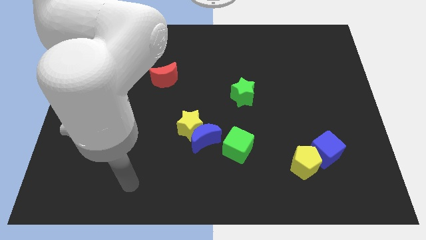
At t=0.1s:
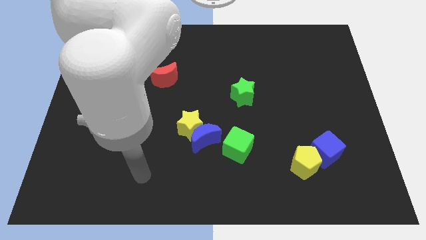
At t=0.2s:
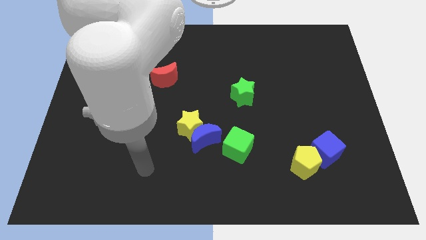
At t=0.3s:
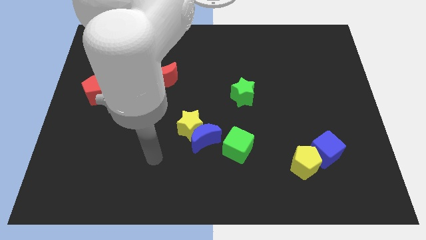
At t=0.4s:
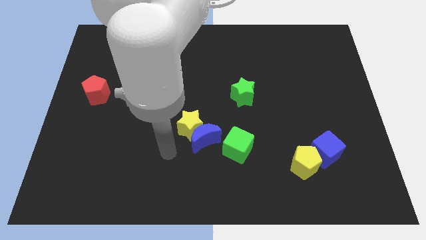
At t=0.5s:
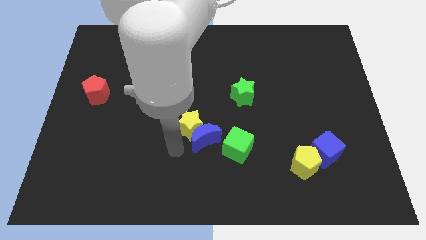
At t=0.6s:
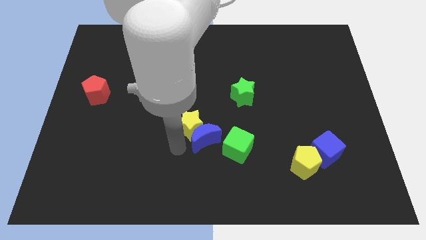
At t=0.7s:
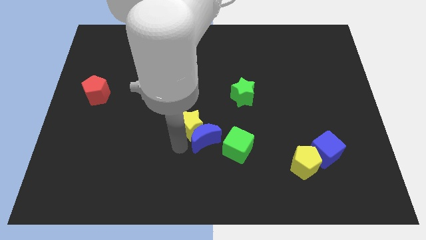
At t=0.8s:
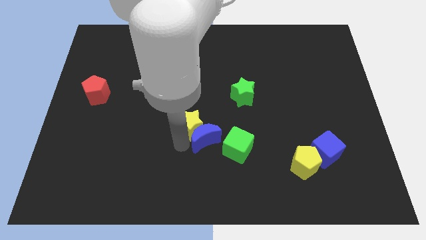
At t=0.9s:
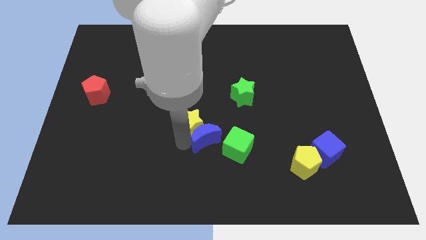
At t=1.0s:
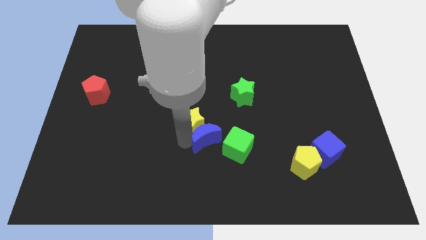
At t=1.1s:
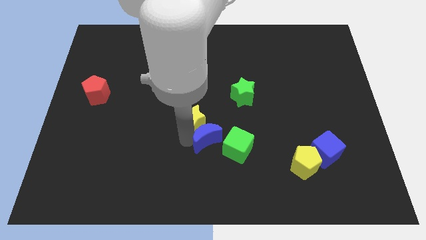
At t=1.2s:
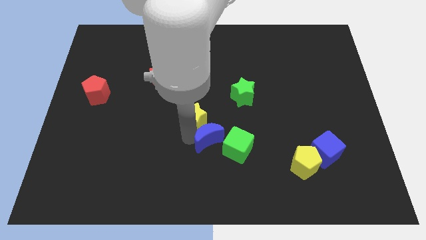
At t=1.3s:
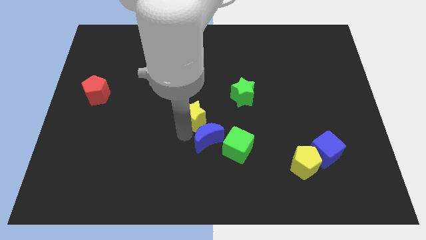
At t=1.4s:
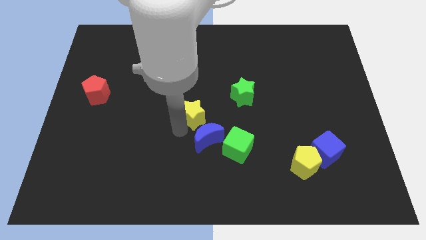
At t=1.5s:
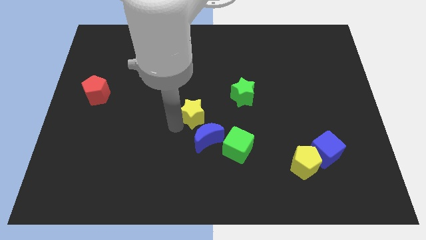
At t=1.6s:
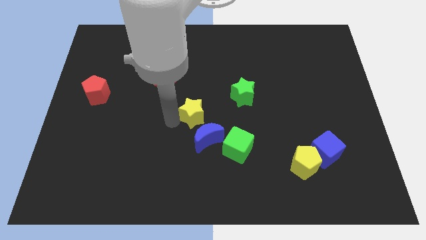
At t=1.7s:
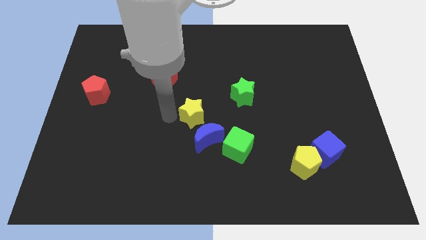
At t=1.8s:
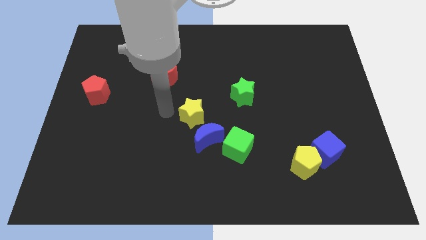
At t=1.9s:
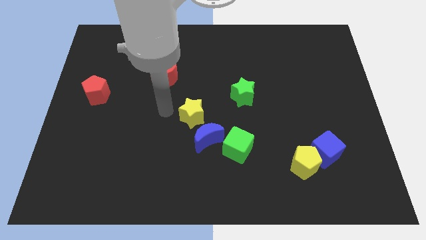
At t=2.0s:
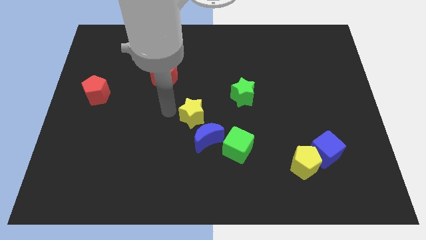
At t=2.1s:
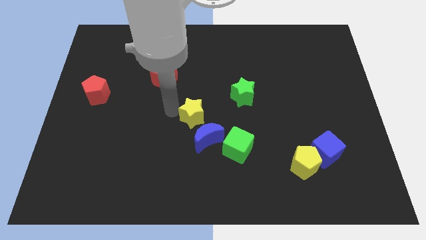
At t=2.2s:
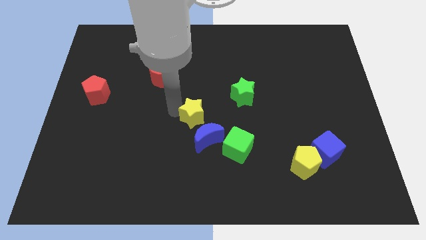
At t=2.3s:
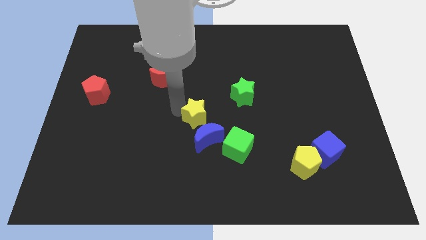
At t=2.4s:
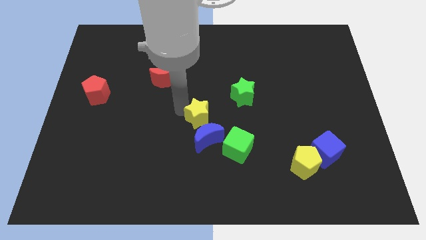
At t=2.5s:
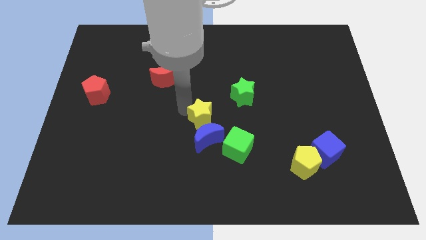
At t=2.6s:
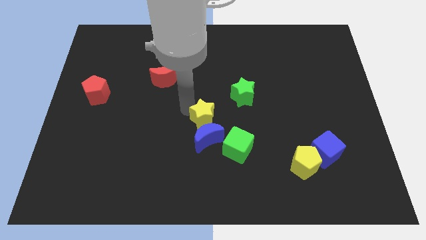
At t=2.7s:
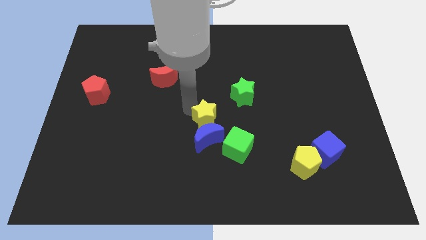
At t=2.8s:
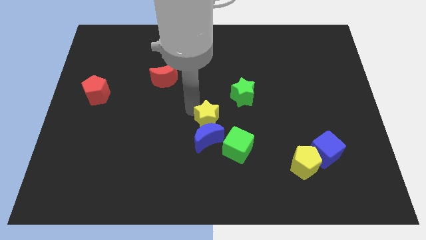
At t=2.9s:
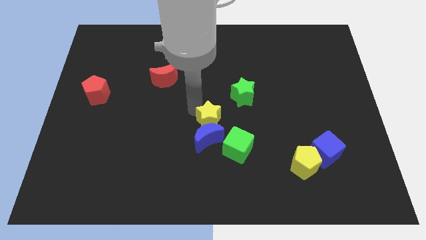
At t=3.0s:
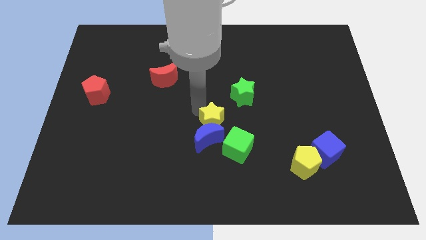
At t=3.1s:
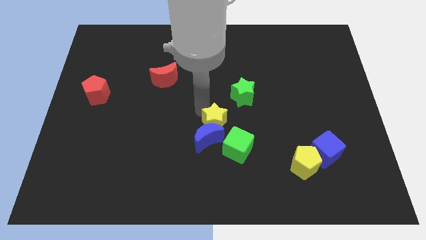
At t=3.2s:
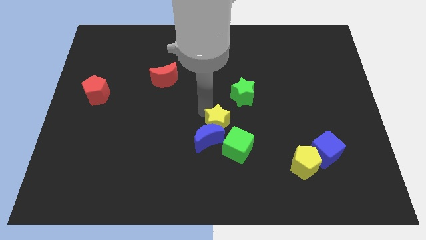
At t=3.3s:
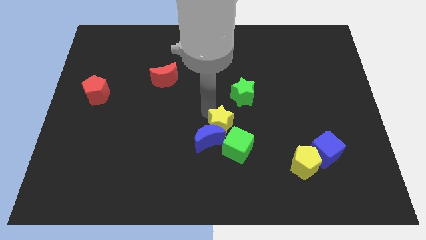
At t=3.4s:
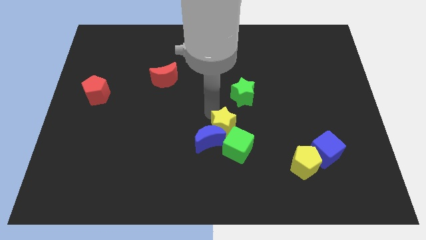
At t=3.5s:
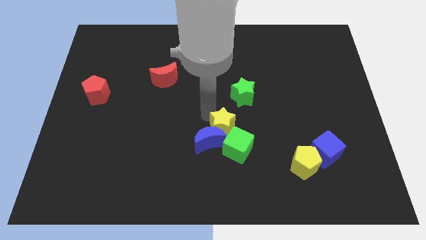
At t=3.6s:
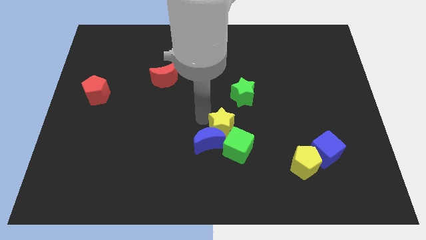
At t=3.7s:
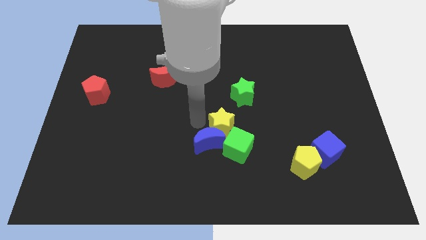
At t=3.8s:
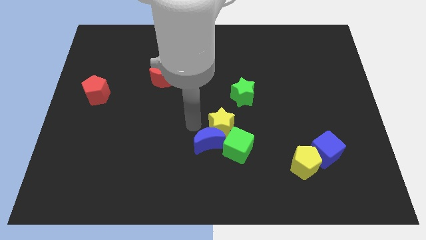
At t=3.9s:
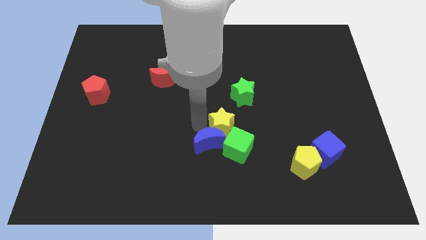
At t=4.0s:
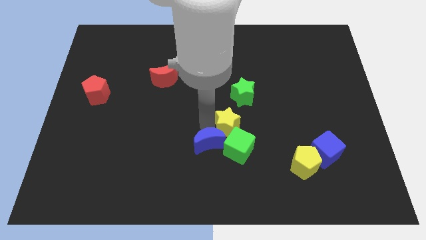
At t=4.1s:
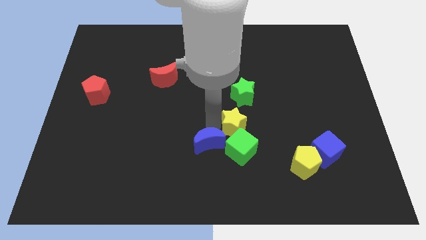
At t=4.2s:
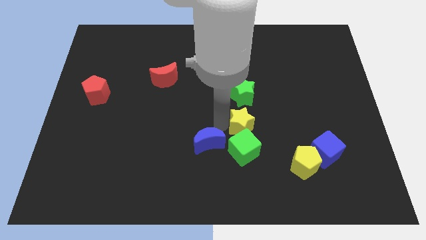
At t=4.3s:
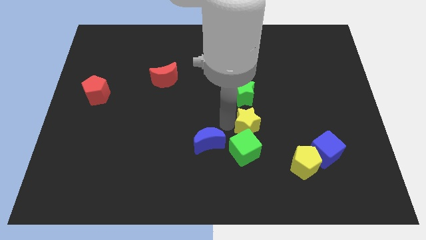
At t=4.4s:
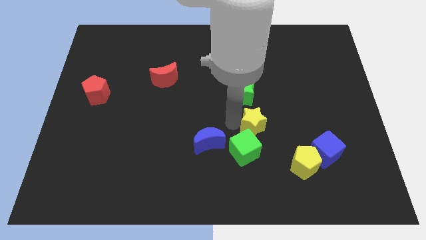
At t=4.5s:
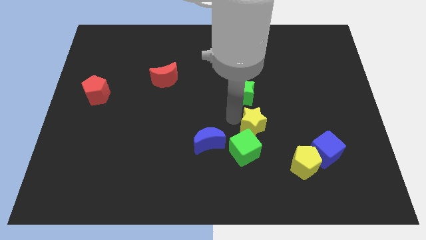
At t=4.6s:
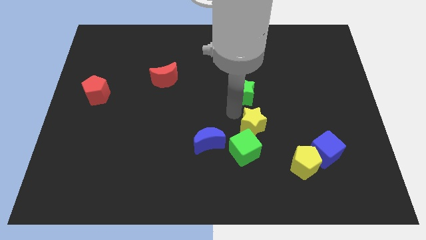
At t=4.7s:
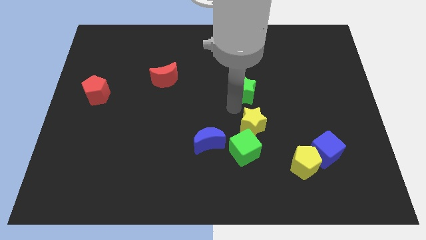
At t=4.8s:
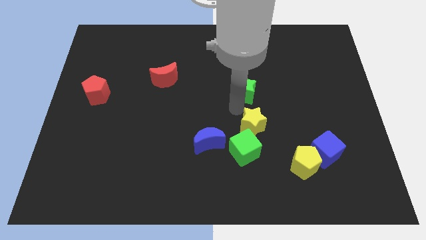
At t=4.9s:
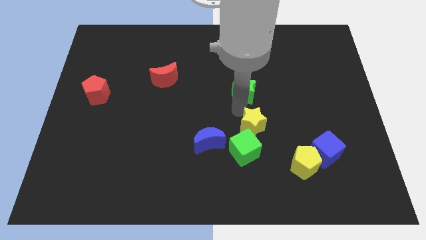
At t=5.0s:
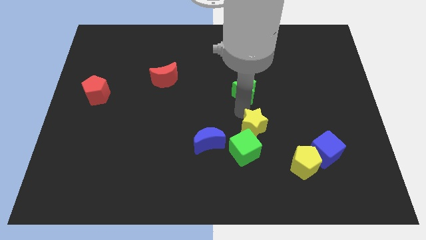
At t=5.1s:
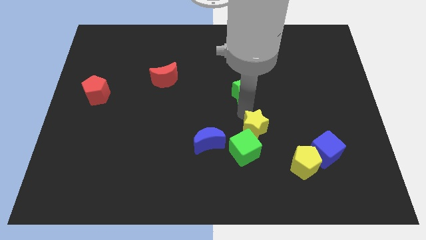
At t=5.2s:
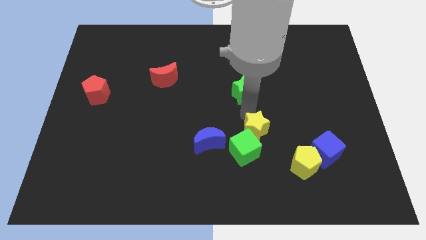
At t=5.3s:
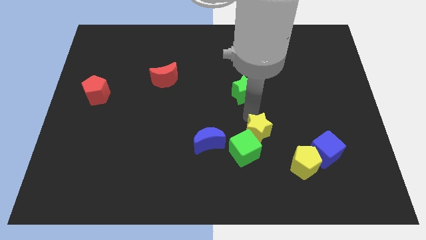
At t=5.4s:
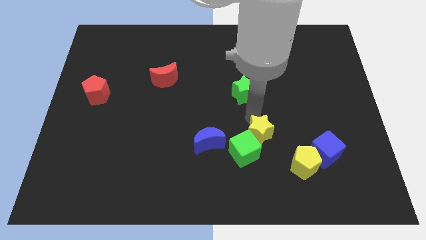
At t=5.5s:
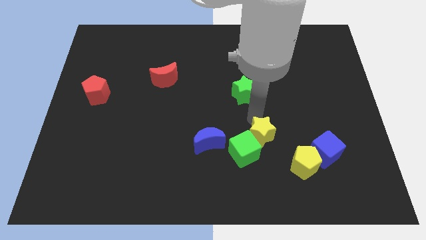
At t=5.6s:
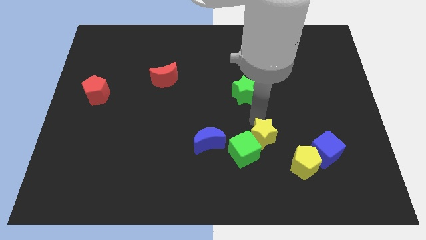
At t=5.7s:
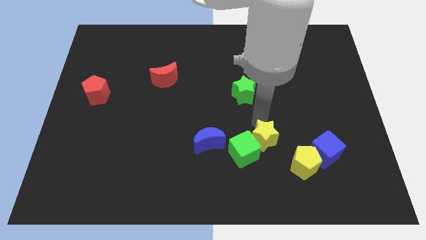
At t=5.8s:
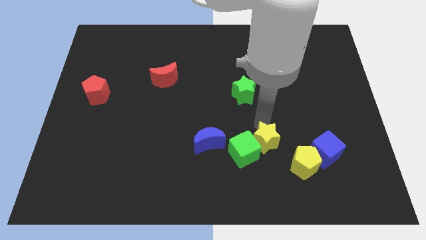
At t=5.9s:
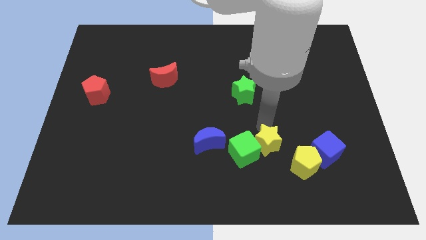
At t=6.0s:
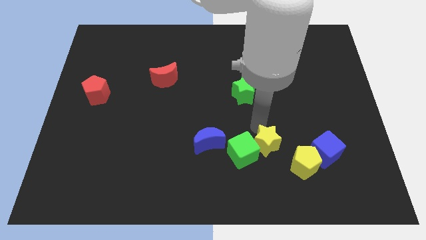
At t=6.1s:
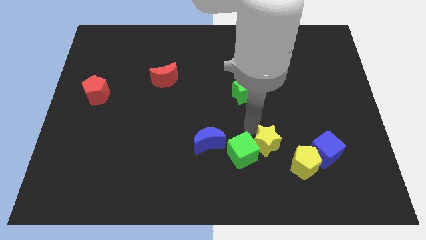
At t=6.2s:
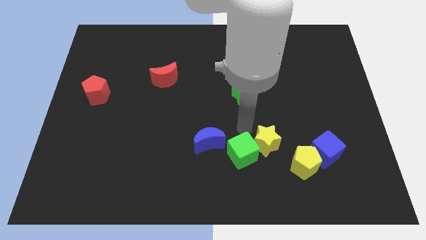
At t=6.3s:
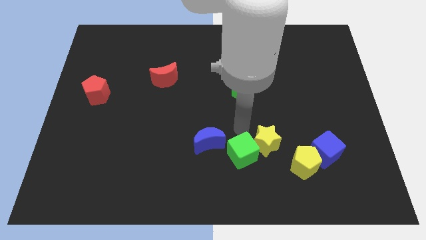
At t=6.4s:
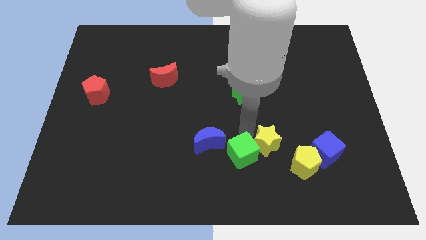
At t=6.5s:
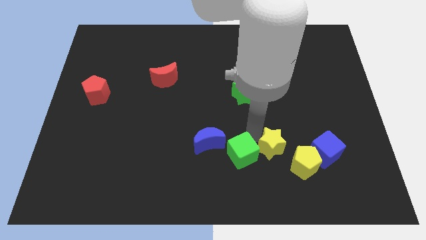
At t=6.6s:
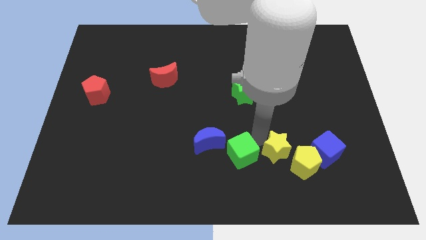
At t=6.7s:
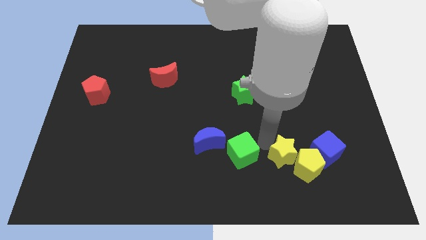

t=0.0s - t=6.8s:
slide the yellow star next to the yellow pentagon

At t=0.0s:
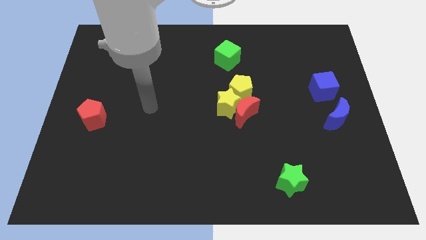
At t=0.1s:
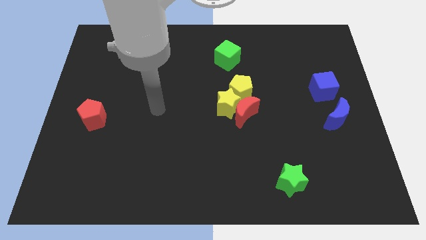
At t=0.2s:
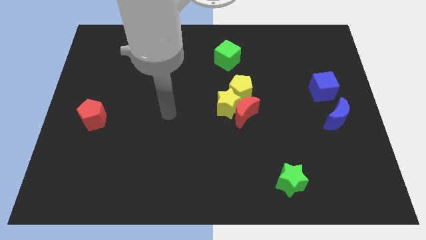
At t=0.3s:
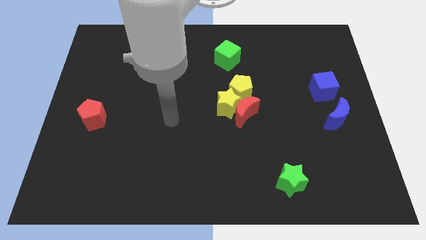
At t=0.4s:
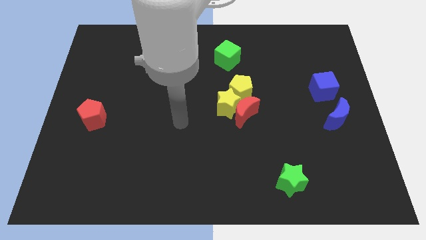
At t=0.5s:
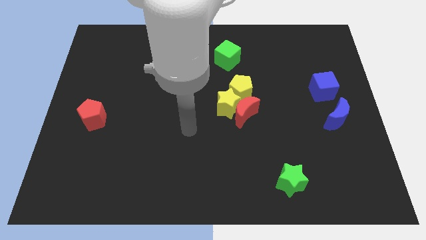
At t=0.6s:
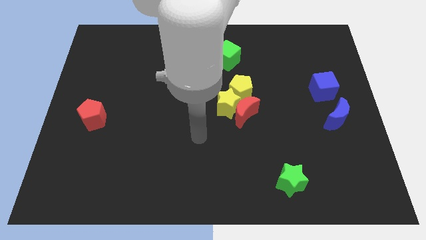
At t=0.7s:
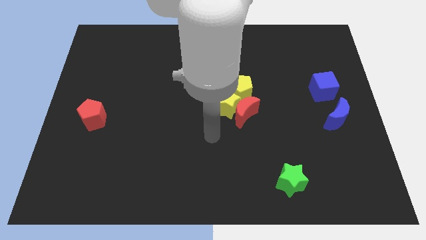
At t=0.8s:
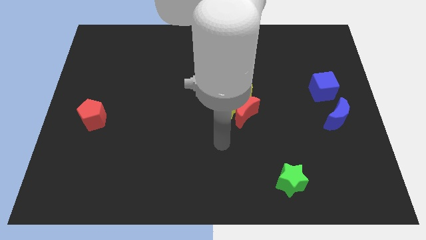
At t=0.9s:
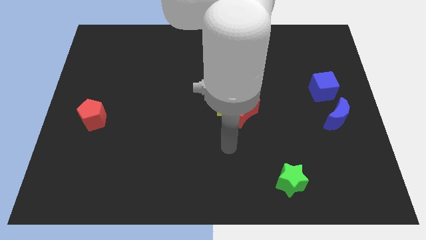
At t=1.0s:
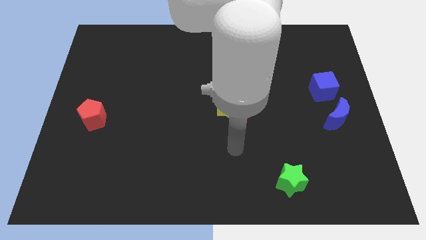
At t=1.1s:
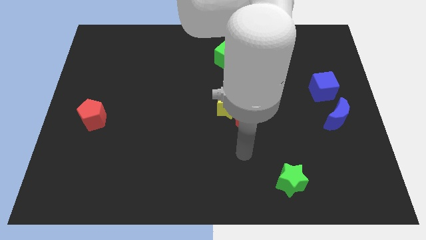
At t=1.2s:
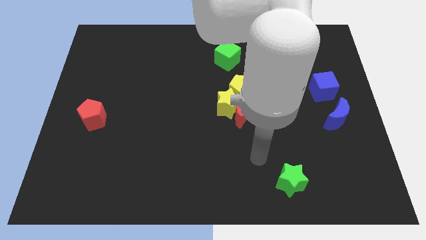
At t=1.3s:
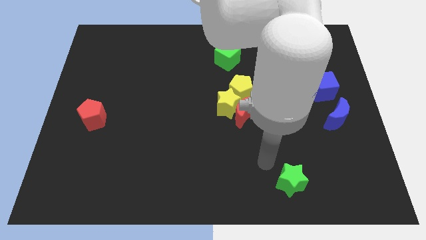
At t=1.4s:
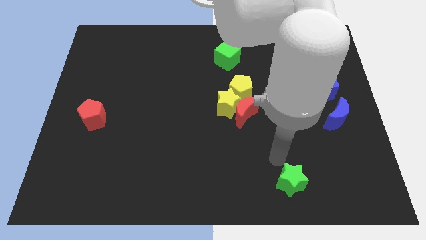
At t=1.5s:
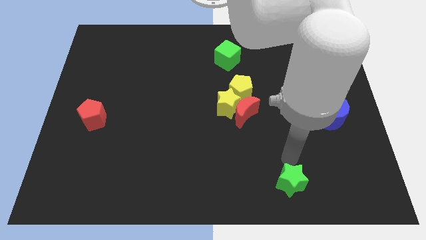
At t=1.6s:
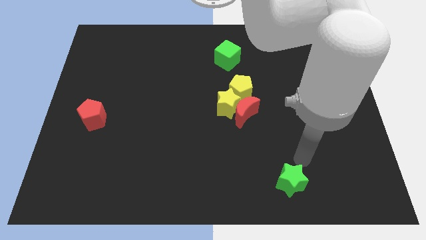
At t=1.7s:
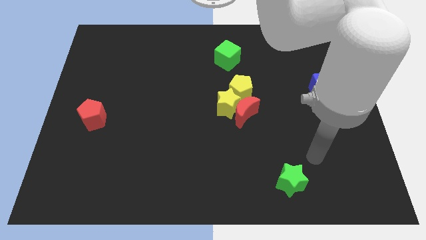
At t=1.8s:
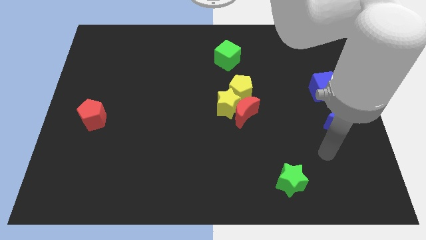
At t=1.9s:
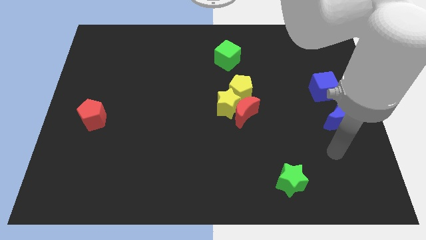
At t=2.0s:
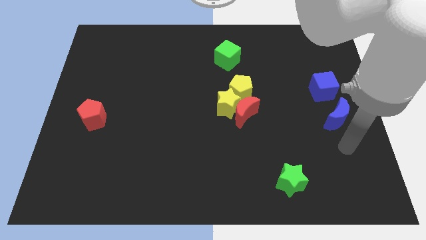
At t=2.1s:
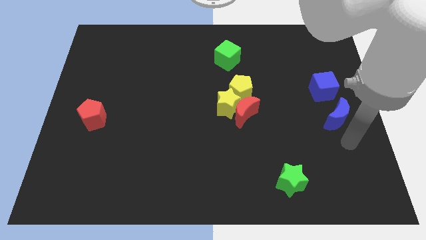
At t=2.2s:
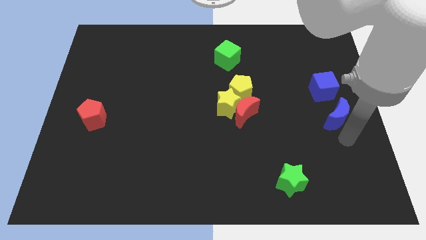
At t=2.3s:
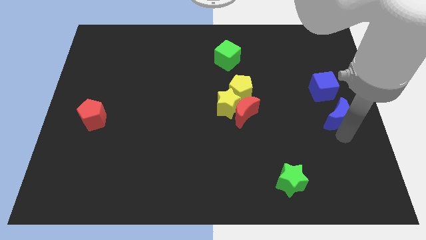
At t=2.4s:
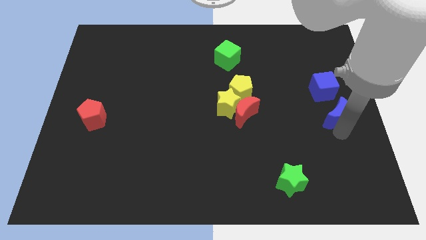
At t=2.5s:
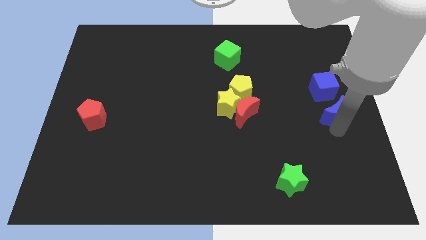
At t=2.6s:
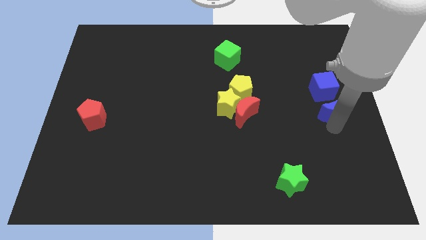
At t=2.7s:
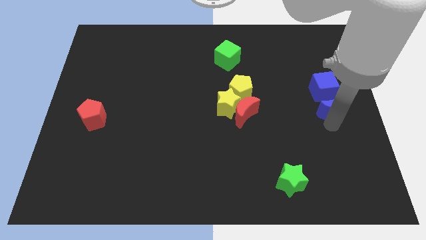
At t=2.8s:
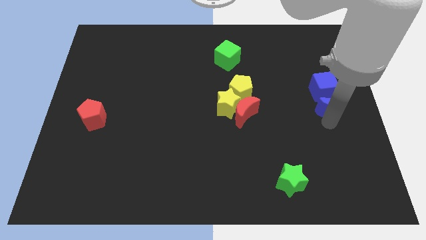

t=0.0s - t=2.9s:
put the blue moon to the blue cube
